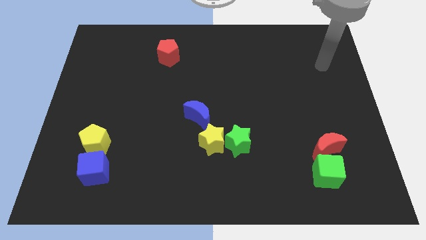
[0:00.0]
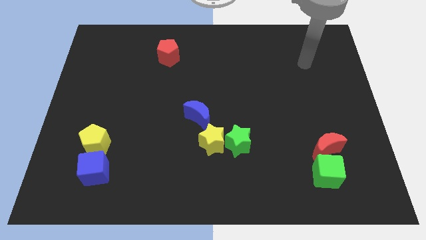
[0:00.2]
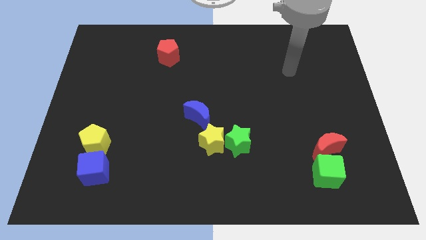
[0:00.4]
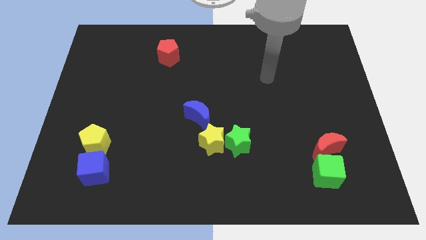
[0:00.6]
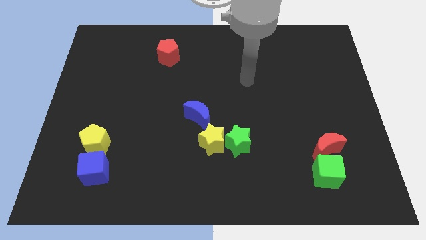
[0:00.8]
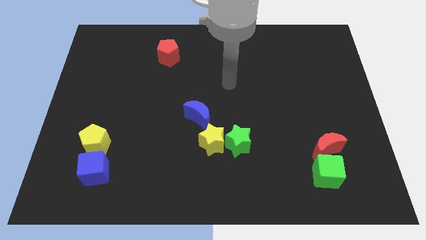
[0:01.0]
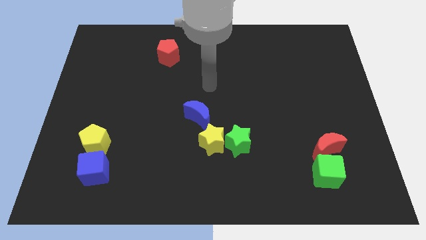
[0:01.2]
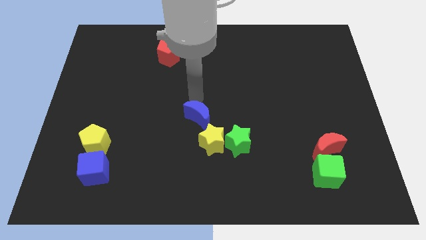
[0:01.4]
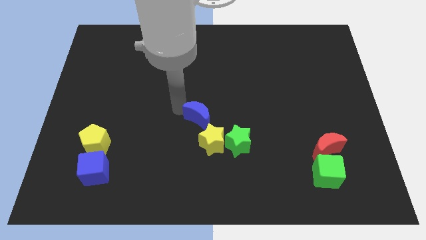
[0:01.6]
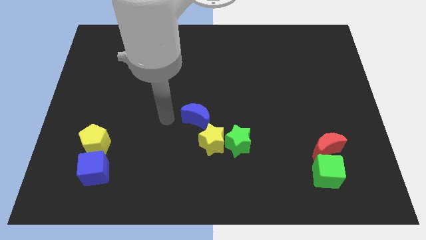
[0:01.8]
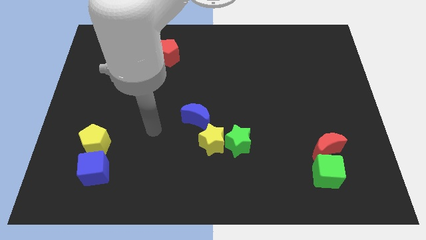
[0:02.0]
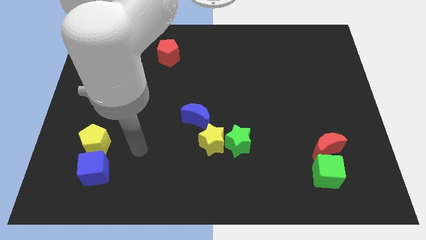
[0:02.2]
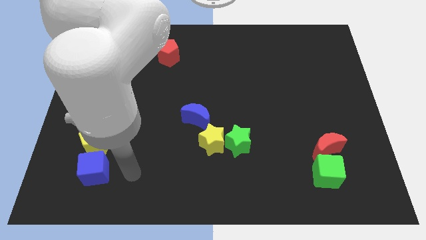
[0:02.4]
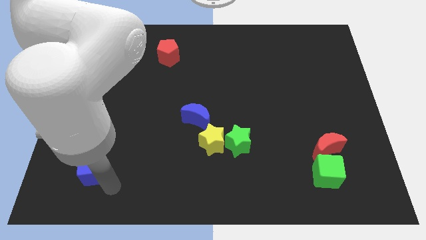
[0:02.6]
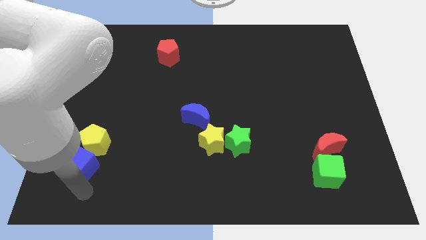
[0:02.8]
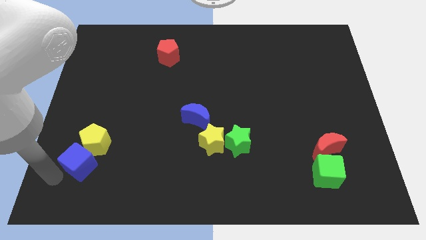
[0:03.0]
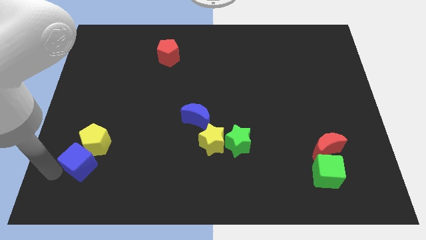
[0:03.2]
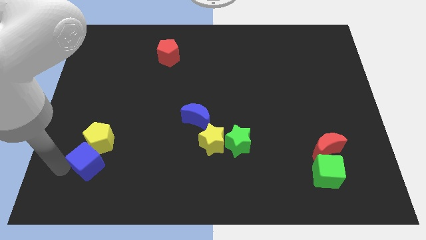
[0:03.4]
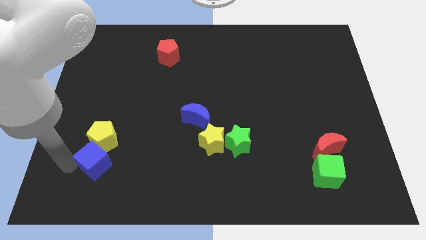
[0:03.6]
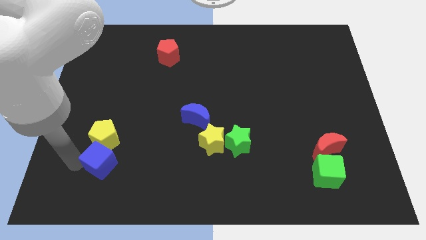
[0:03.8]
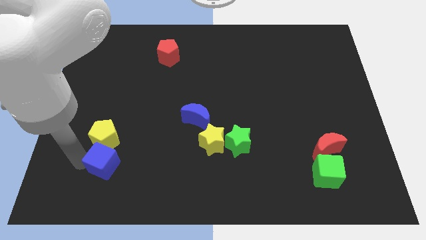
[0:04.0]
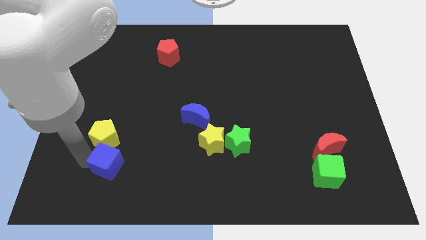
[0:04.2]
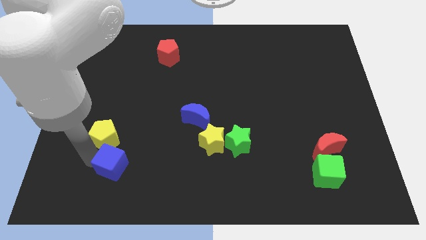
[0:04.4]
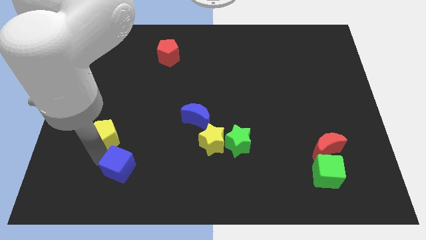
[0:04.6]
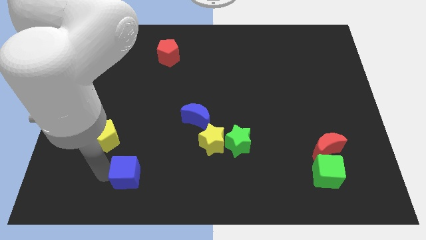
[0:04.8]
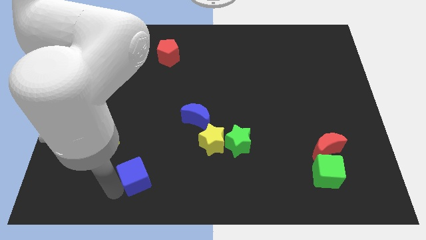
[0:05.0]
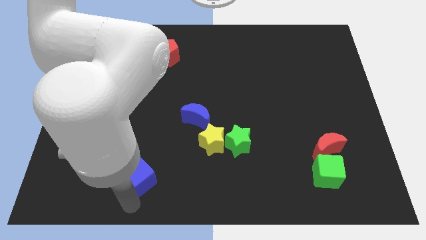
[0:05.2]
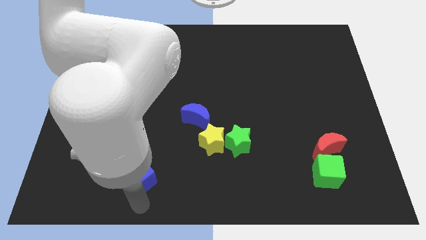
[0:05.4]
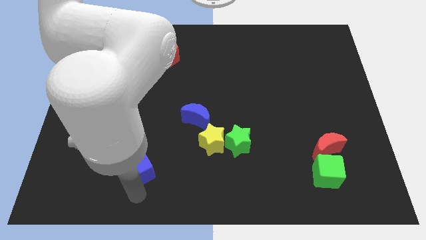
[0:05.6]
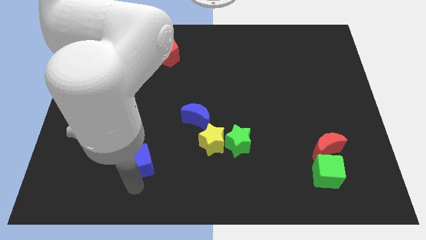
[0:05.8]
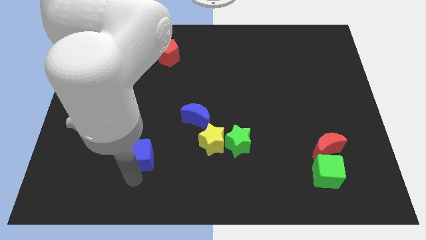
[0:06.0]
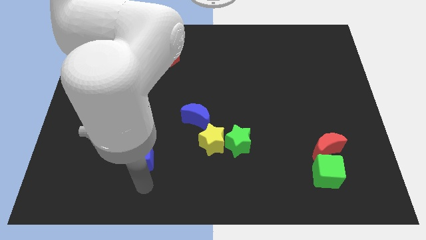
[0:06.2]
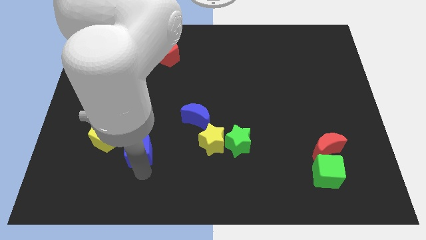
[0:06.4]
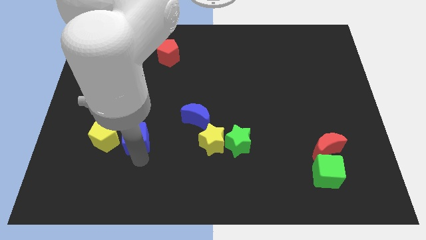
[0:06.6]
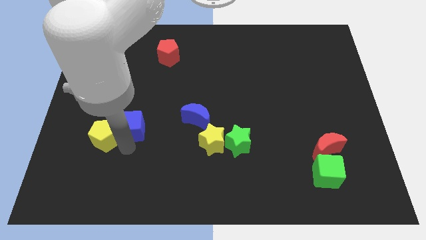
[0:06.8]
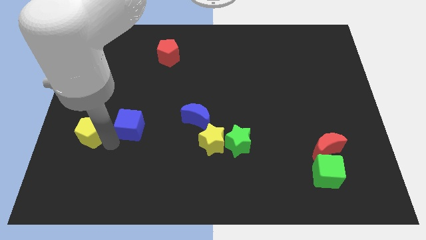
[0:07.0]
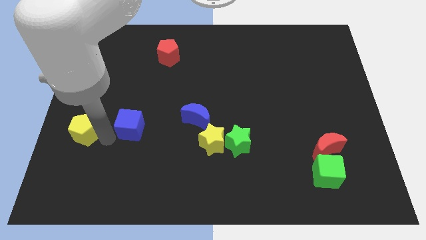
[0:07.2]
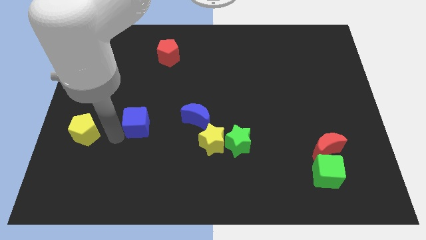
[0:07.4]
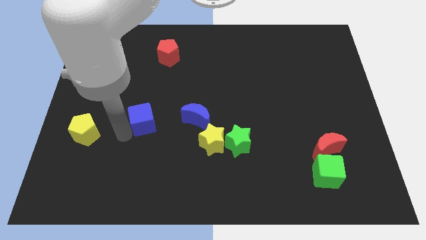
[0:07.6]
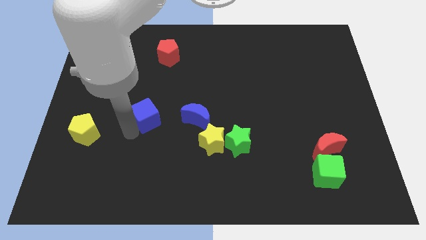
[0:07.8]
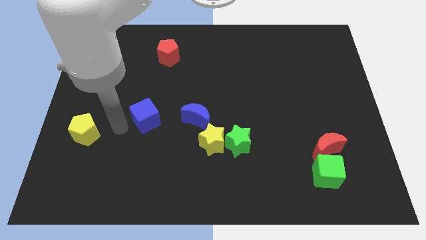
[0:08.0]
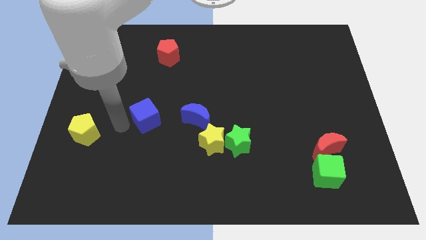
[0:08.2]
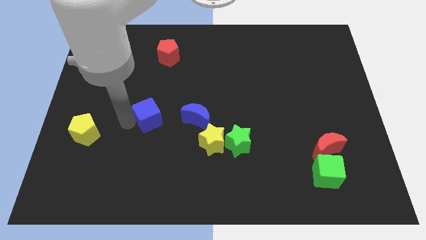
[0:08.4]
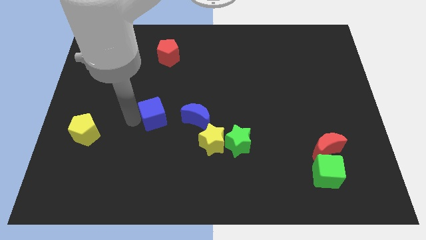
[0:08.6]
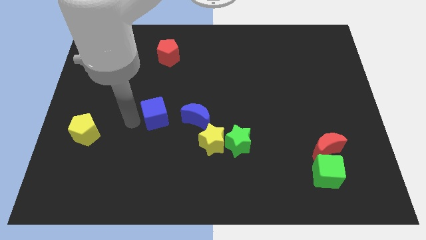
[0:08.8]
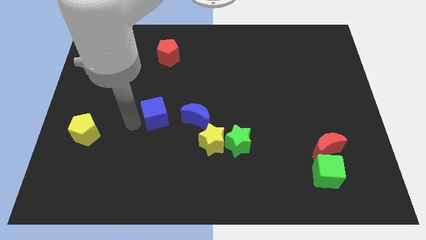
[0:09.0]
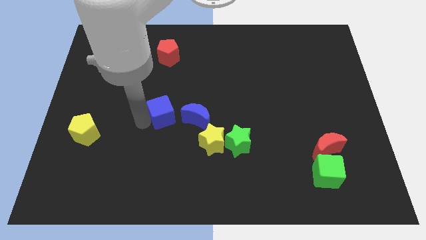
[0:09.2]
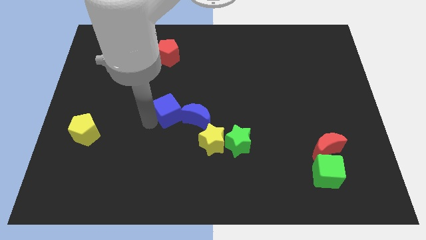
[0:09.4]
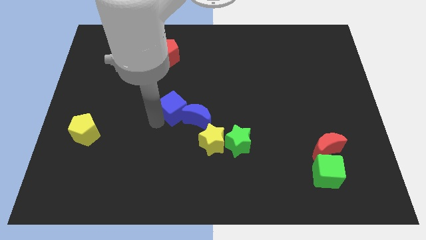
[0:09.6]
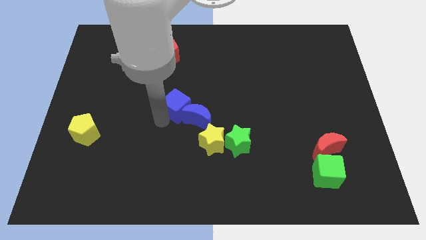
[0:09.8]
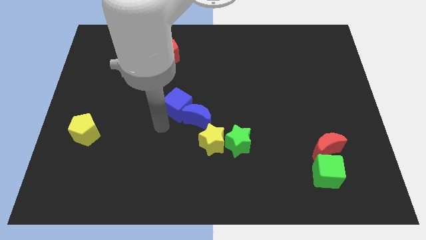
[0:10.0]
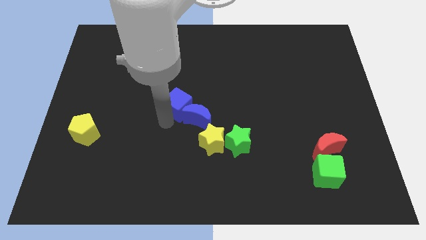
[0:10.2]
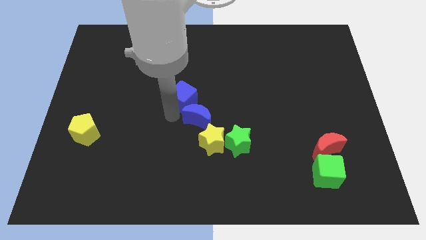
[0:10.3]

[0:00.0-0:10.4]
slide the blue cube above the blue moon

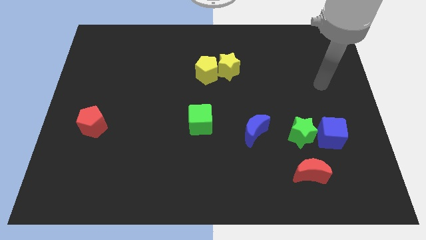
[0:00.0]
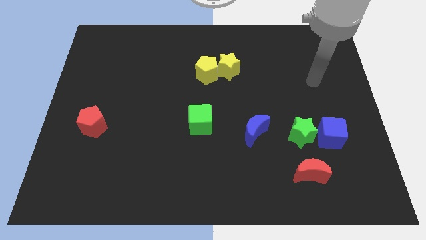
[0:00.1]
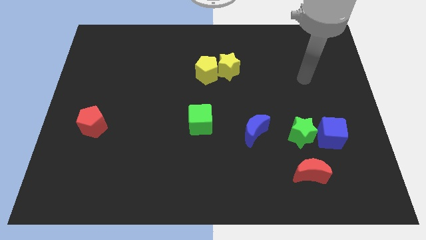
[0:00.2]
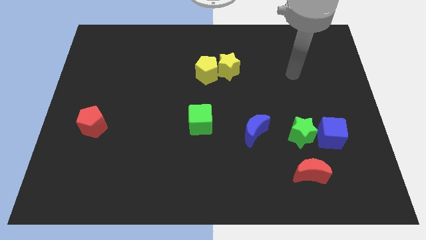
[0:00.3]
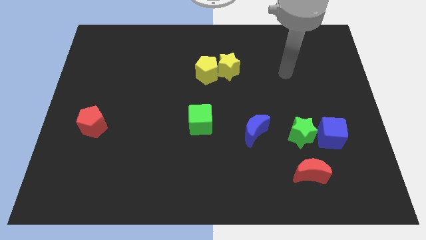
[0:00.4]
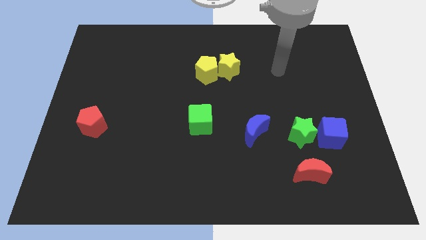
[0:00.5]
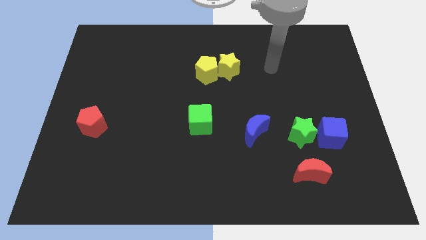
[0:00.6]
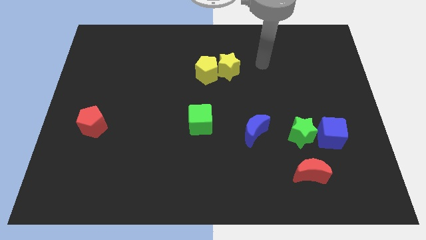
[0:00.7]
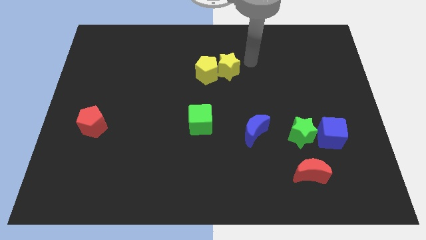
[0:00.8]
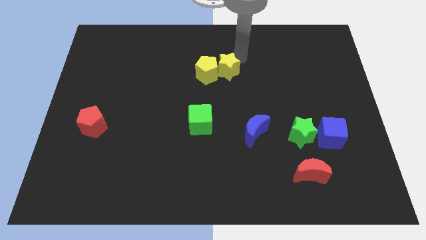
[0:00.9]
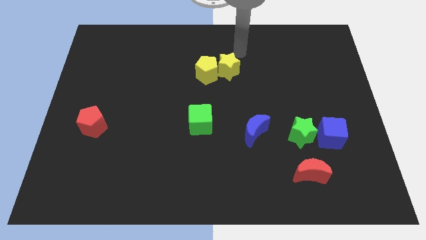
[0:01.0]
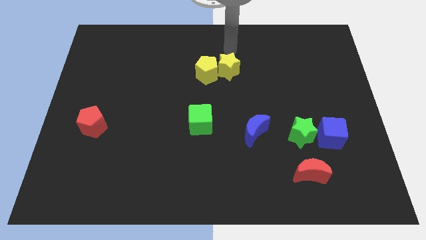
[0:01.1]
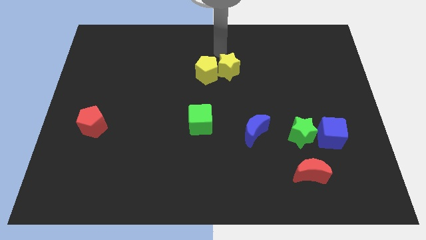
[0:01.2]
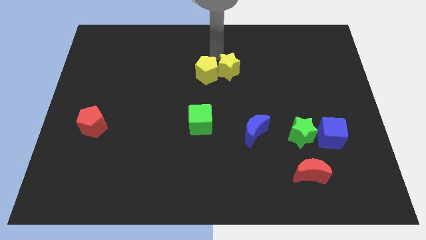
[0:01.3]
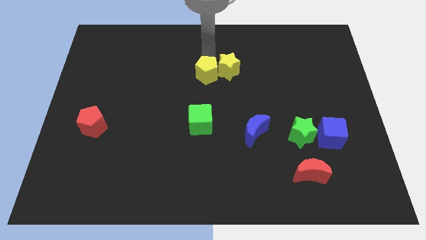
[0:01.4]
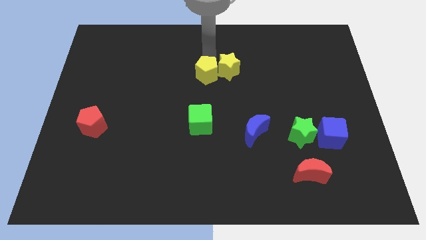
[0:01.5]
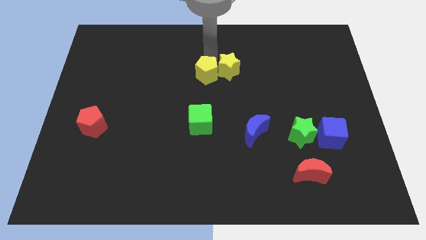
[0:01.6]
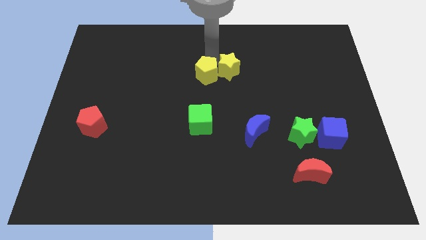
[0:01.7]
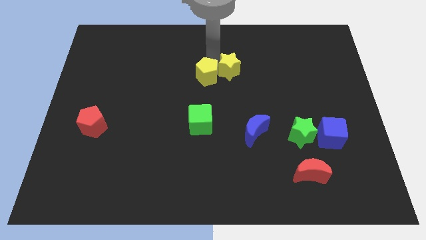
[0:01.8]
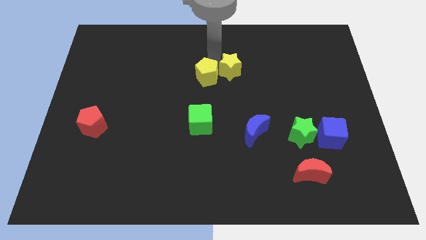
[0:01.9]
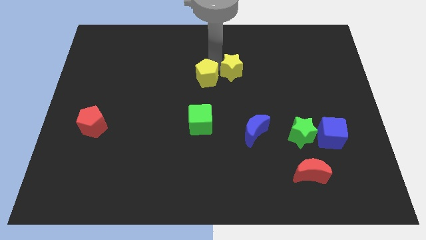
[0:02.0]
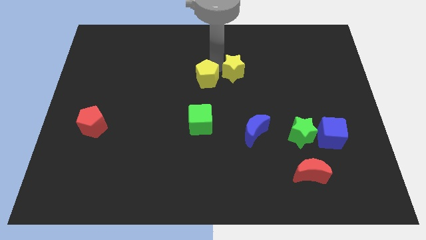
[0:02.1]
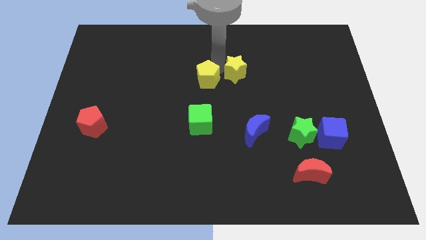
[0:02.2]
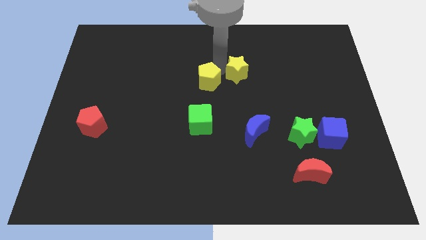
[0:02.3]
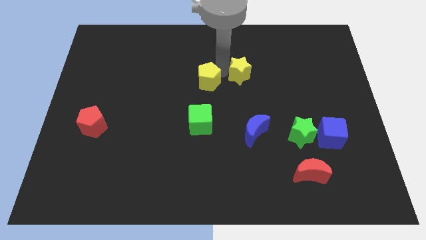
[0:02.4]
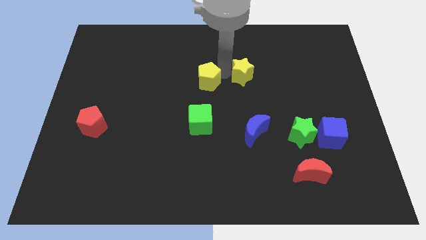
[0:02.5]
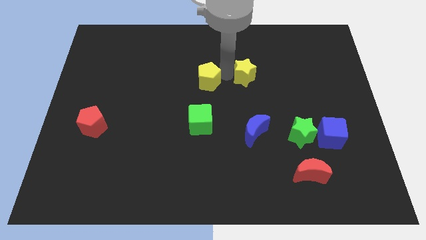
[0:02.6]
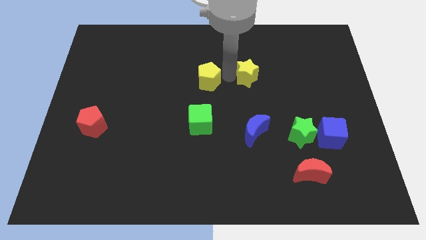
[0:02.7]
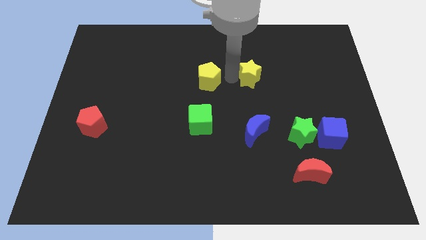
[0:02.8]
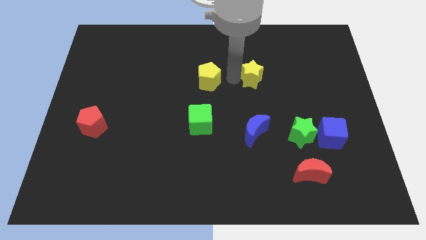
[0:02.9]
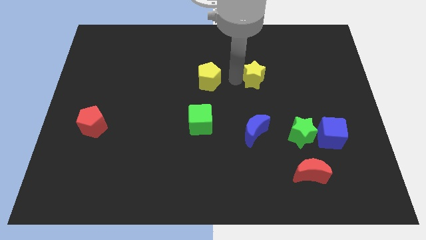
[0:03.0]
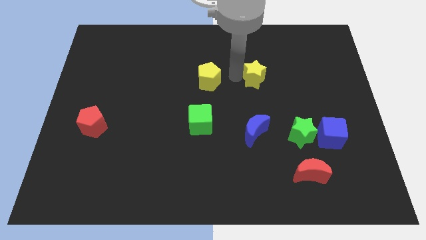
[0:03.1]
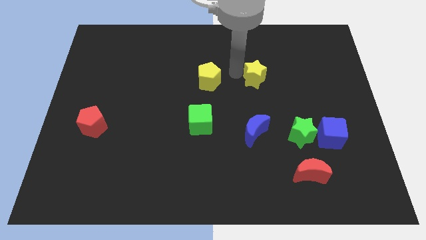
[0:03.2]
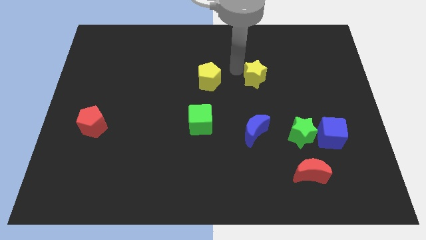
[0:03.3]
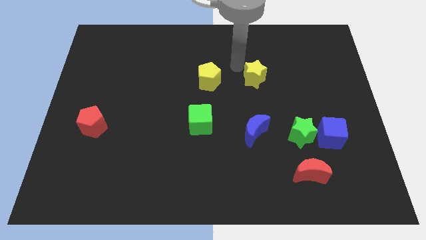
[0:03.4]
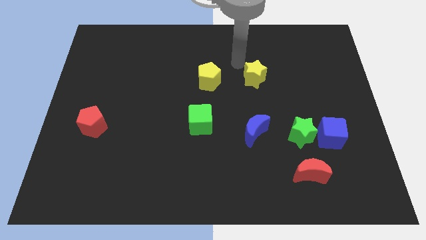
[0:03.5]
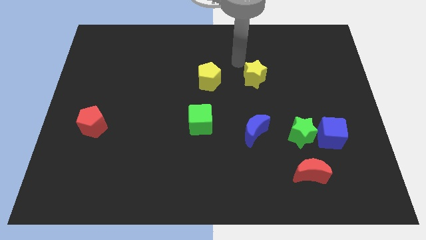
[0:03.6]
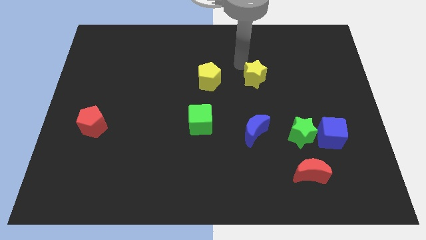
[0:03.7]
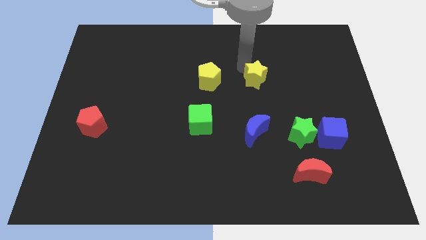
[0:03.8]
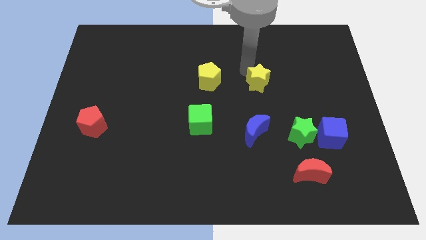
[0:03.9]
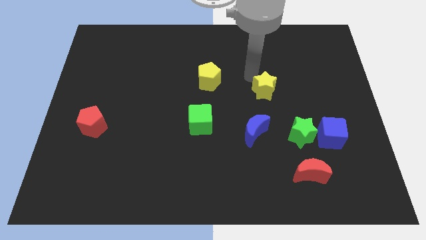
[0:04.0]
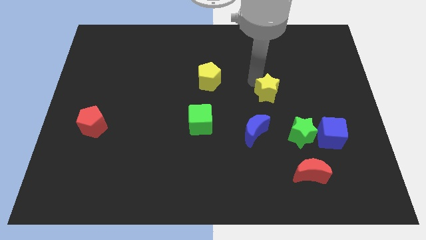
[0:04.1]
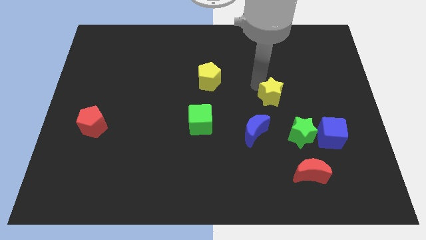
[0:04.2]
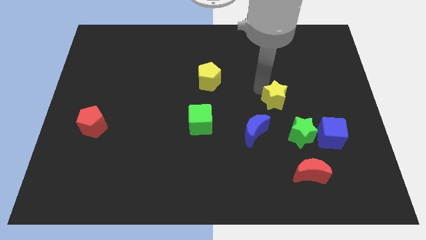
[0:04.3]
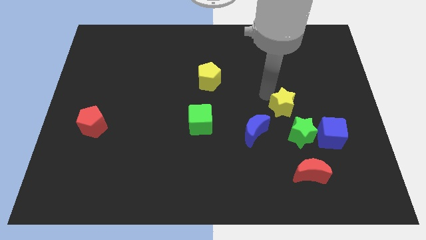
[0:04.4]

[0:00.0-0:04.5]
push the yellow star to the top left of the blue cube
